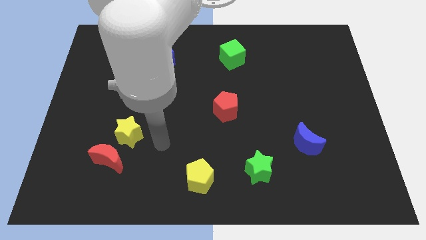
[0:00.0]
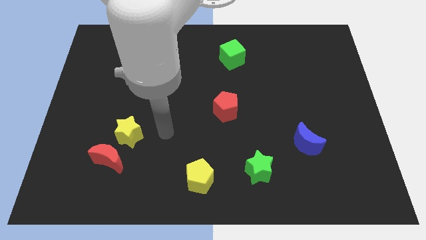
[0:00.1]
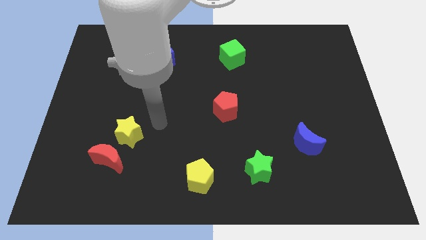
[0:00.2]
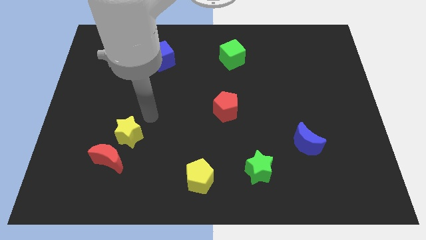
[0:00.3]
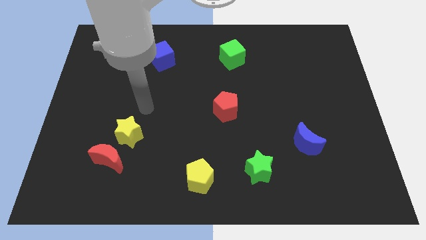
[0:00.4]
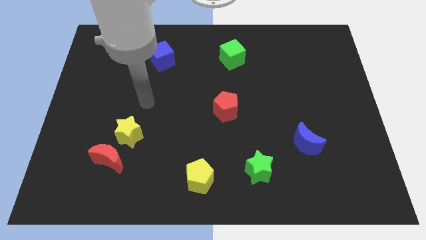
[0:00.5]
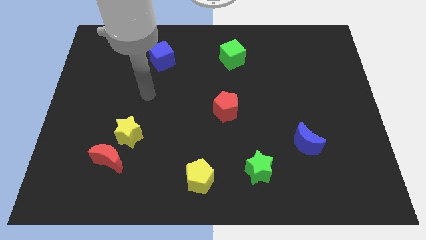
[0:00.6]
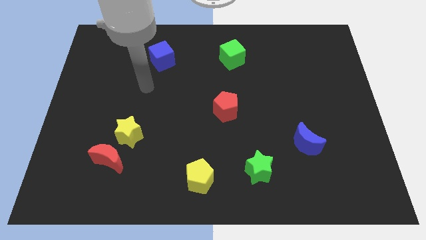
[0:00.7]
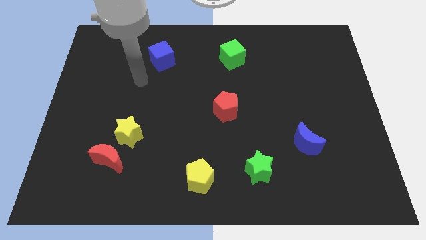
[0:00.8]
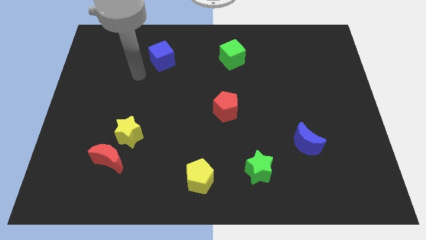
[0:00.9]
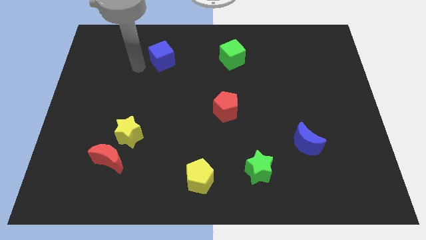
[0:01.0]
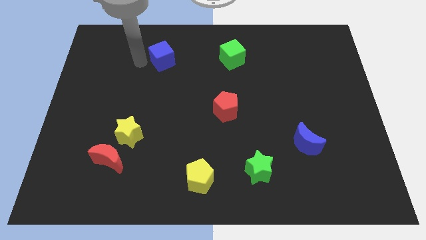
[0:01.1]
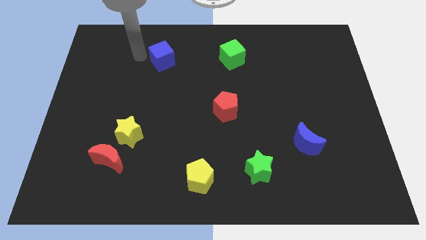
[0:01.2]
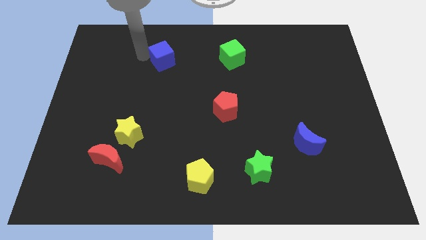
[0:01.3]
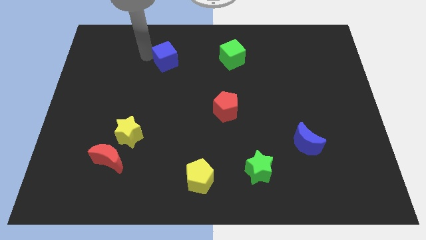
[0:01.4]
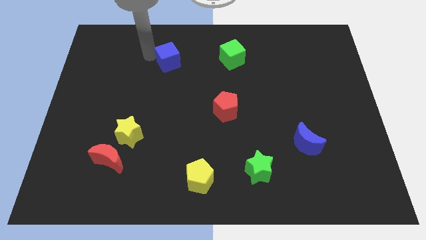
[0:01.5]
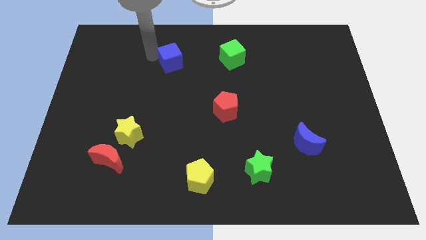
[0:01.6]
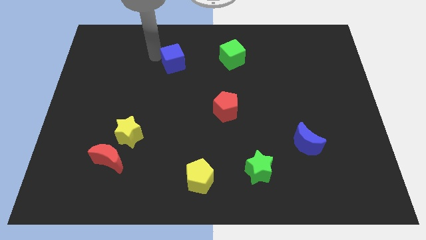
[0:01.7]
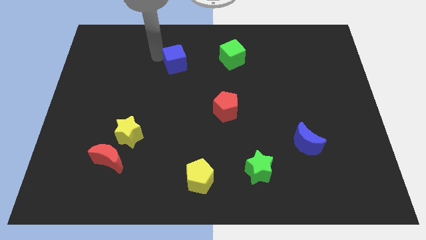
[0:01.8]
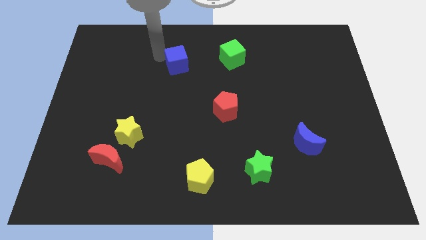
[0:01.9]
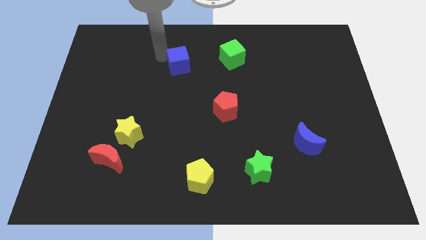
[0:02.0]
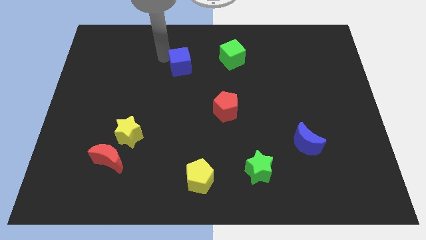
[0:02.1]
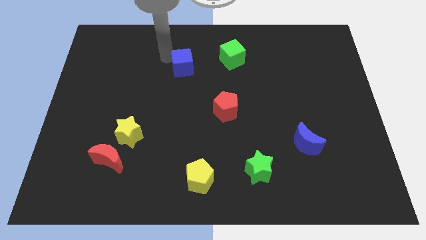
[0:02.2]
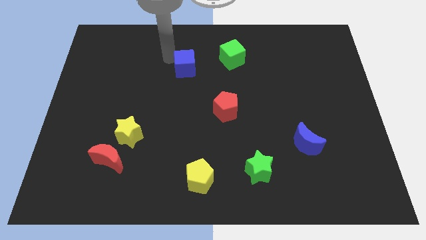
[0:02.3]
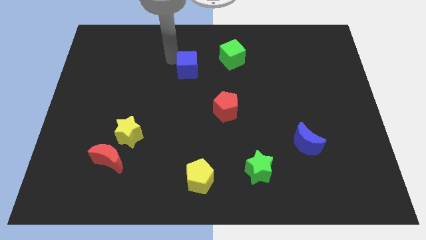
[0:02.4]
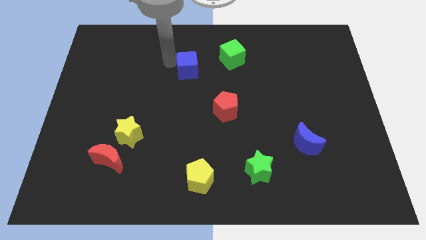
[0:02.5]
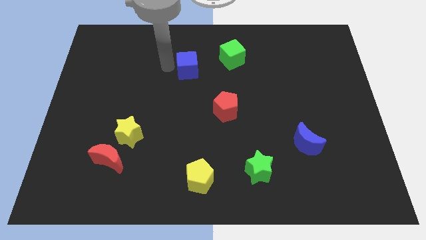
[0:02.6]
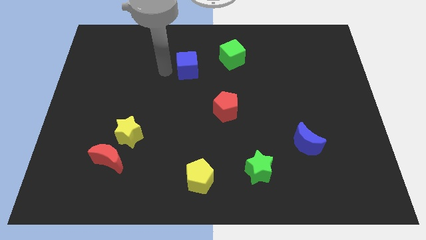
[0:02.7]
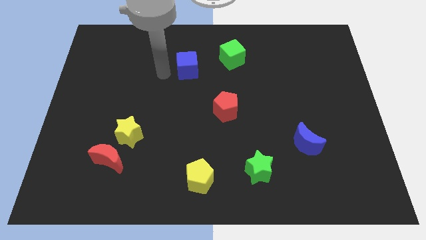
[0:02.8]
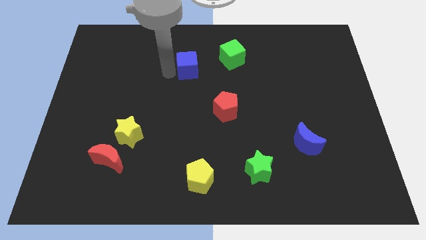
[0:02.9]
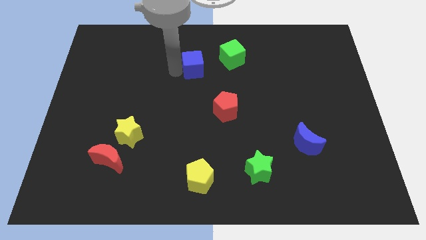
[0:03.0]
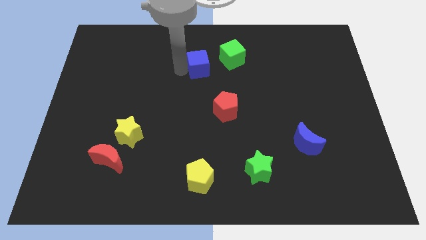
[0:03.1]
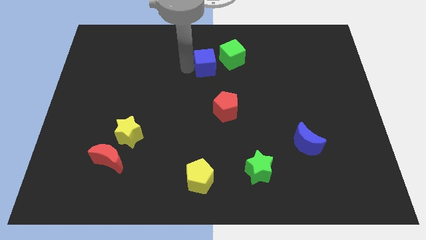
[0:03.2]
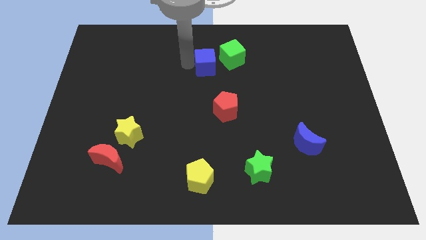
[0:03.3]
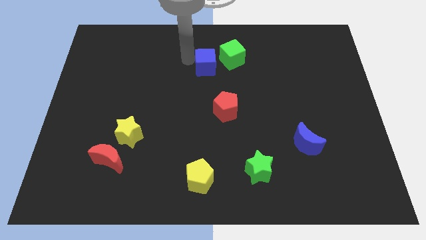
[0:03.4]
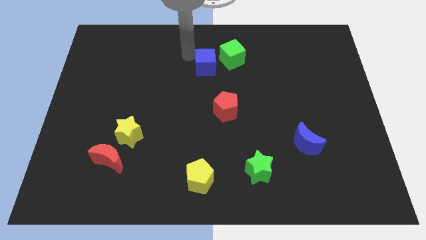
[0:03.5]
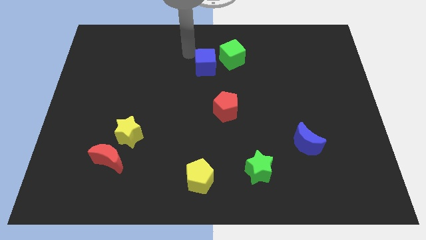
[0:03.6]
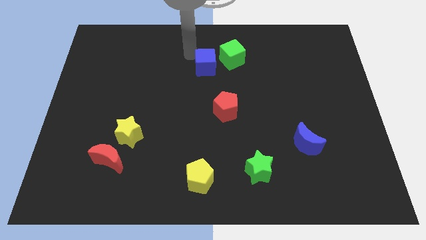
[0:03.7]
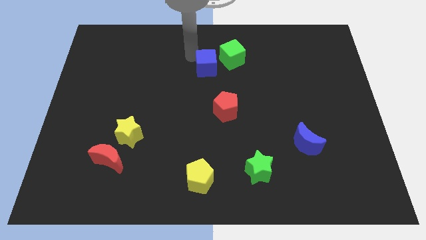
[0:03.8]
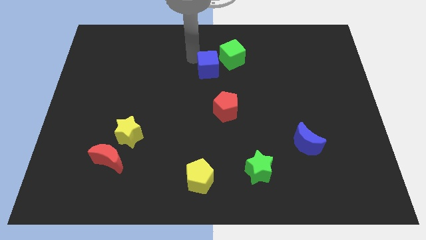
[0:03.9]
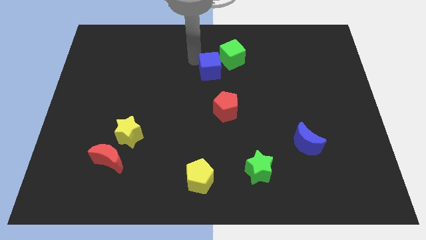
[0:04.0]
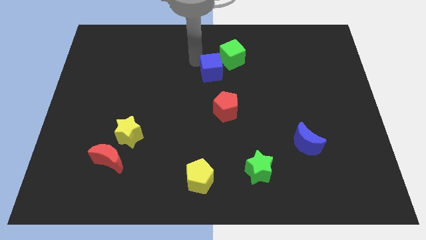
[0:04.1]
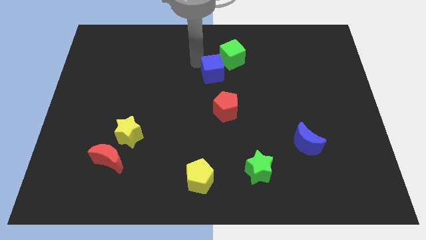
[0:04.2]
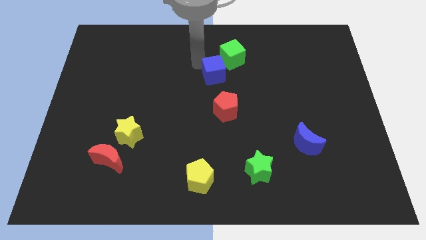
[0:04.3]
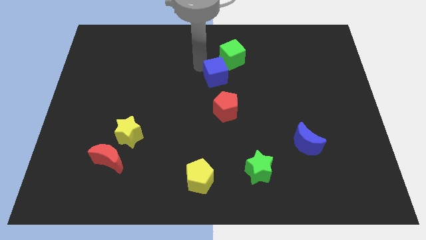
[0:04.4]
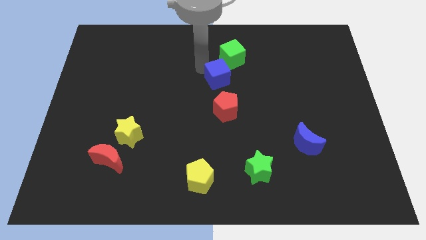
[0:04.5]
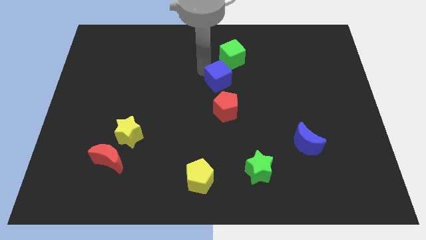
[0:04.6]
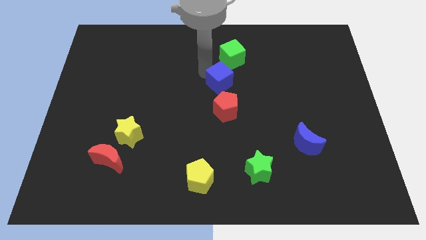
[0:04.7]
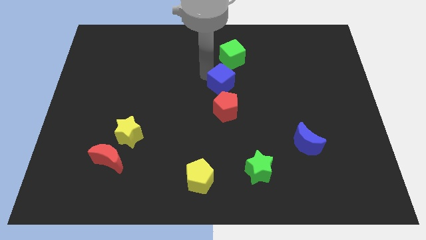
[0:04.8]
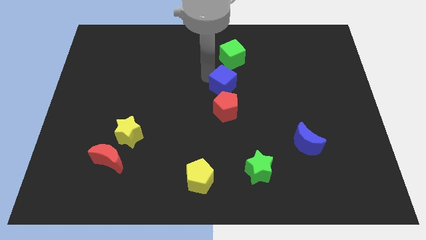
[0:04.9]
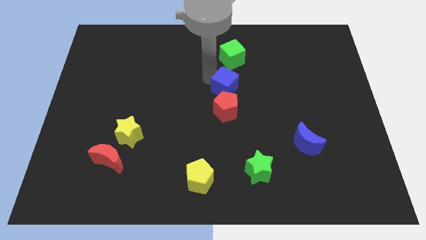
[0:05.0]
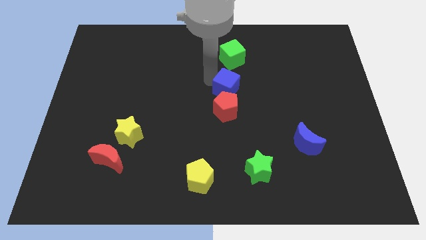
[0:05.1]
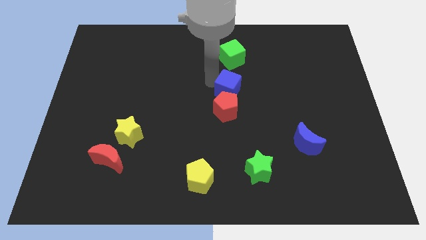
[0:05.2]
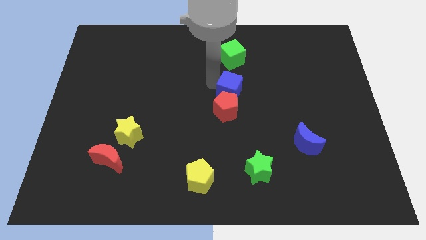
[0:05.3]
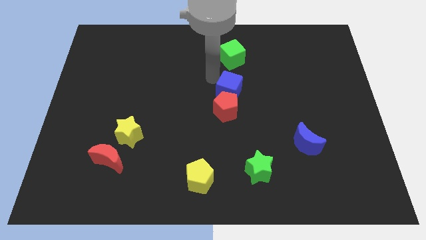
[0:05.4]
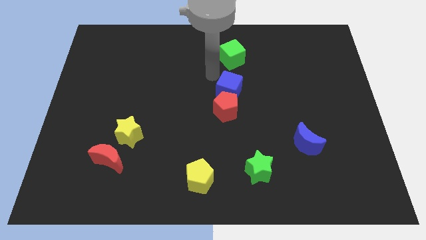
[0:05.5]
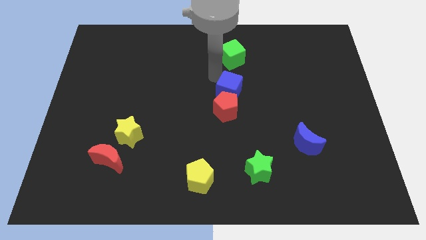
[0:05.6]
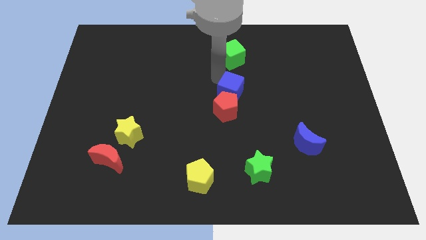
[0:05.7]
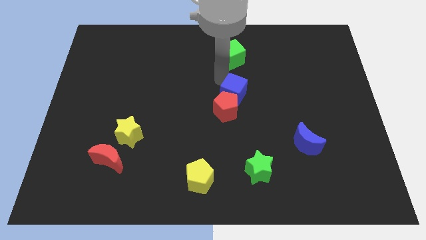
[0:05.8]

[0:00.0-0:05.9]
slide the blue cube down and right

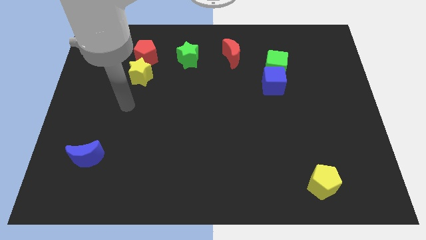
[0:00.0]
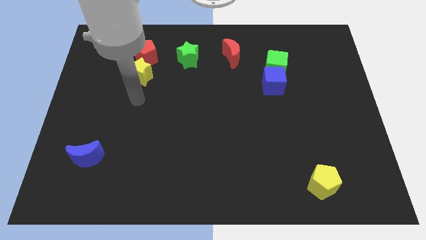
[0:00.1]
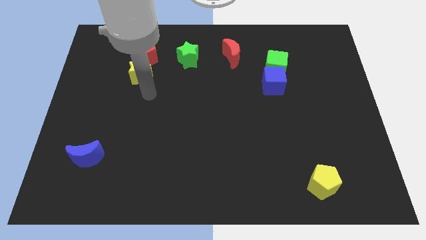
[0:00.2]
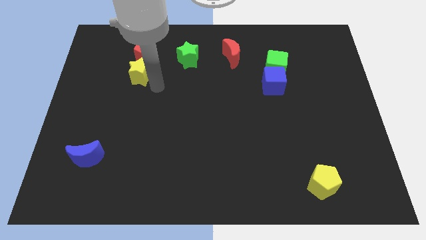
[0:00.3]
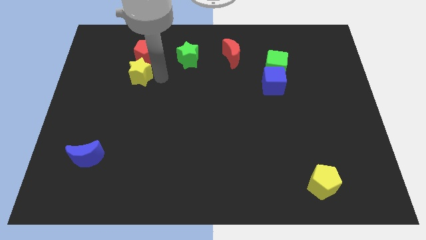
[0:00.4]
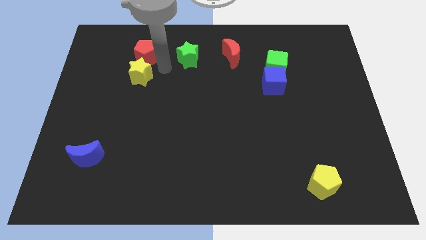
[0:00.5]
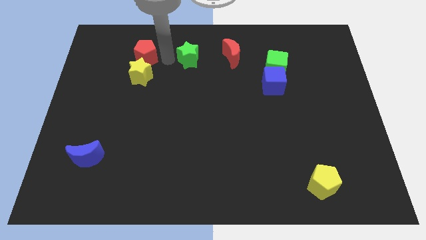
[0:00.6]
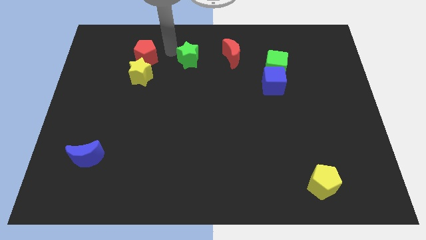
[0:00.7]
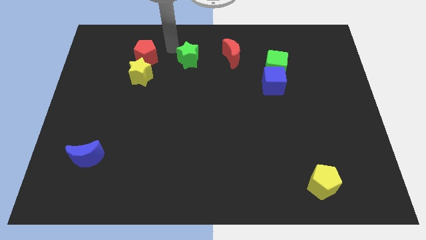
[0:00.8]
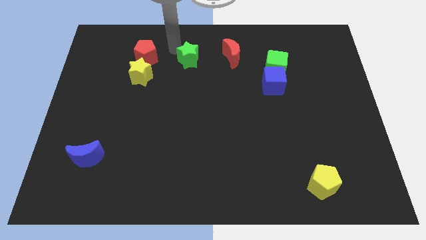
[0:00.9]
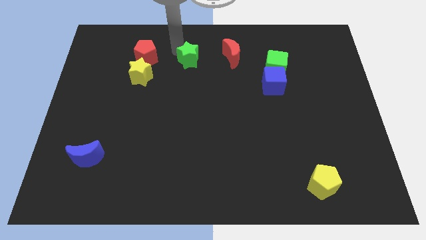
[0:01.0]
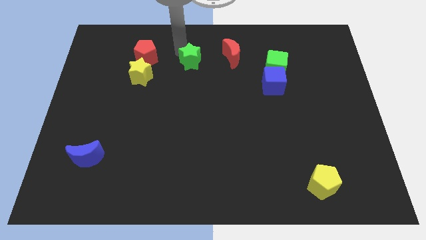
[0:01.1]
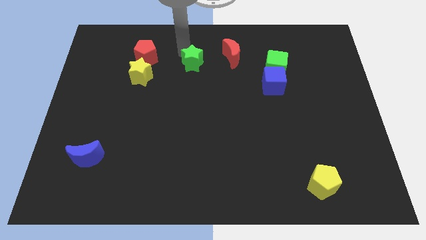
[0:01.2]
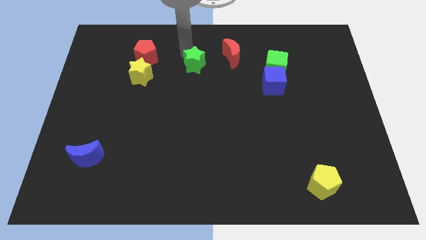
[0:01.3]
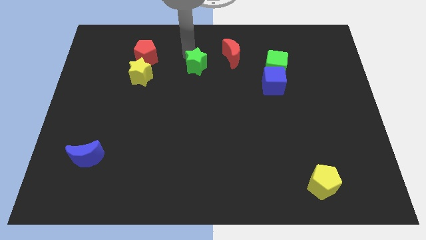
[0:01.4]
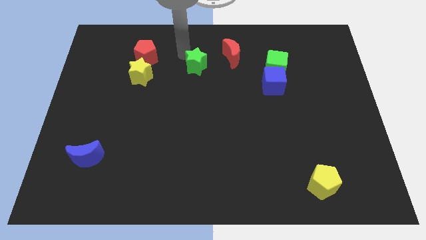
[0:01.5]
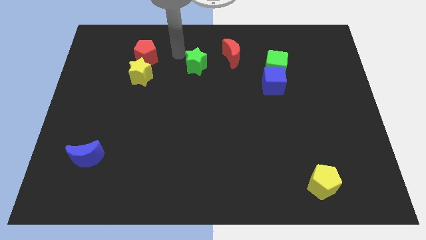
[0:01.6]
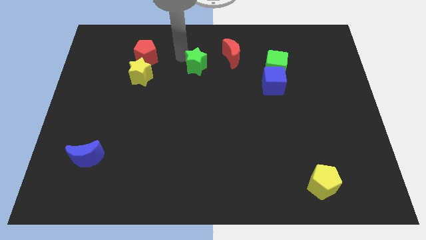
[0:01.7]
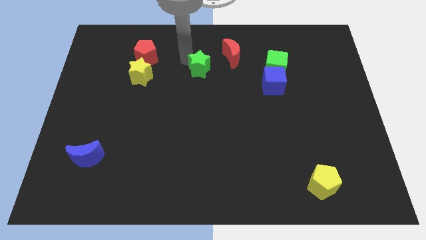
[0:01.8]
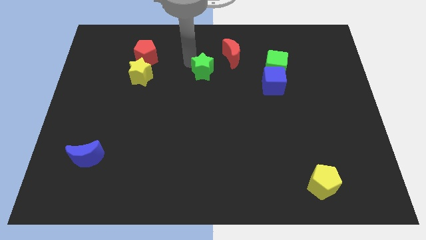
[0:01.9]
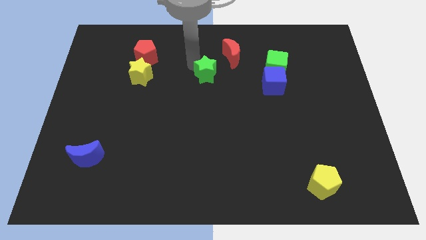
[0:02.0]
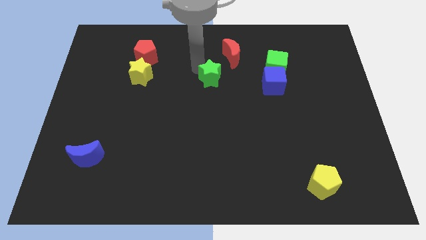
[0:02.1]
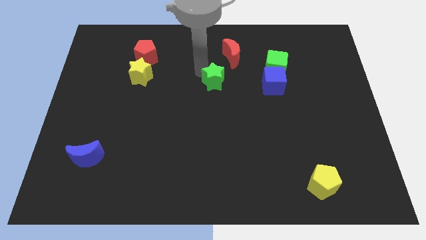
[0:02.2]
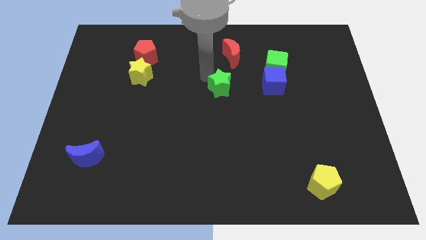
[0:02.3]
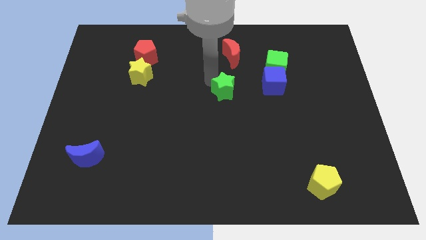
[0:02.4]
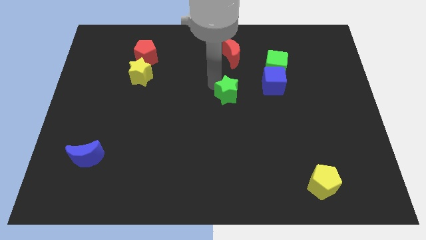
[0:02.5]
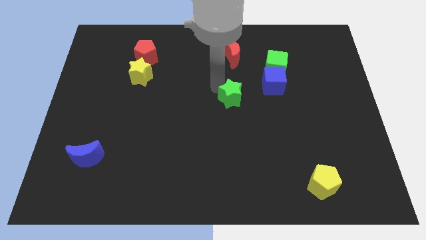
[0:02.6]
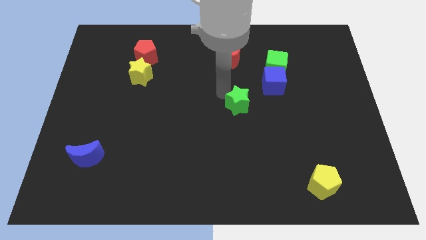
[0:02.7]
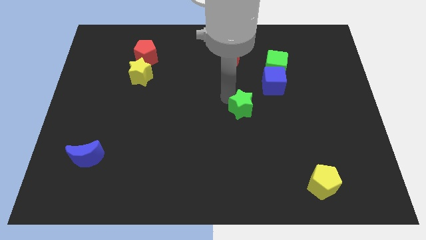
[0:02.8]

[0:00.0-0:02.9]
move the green star downwards and to the right diagonally
